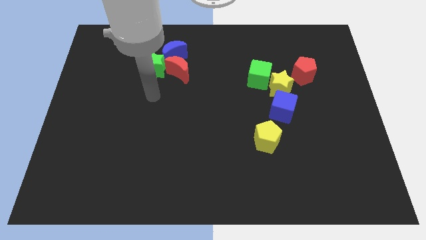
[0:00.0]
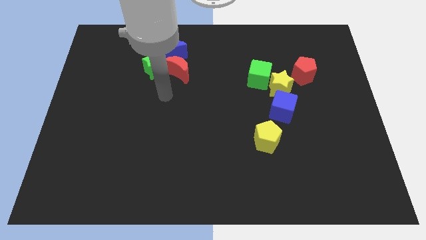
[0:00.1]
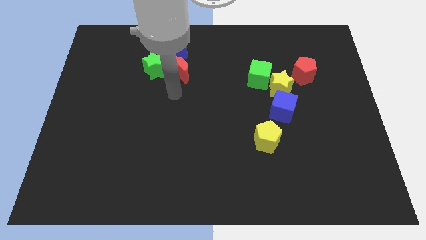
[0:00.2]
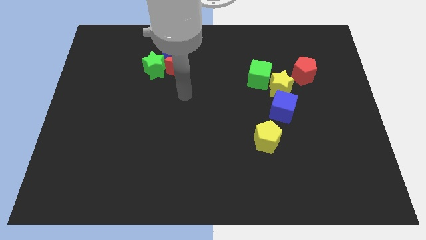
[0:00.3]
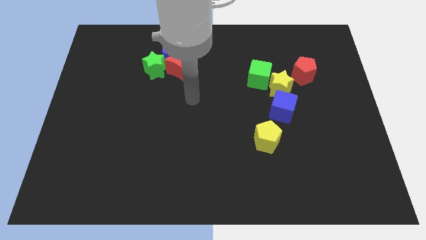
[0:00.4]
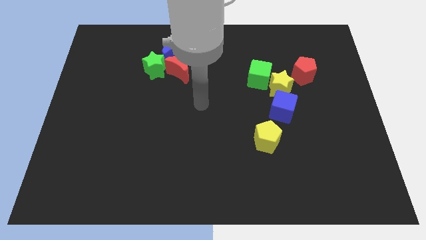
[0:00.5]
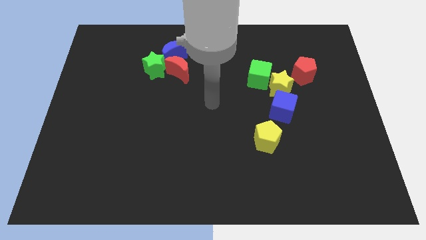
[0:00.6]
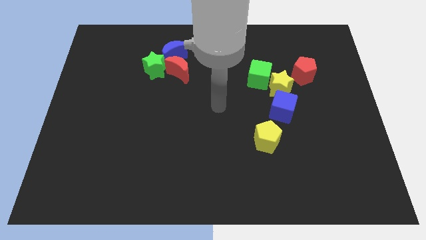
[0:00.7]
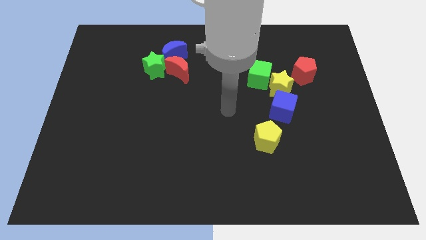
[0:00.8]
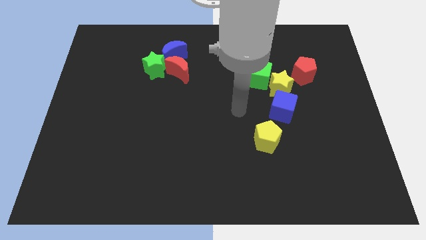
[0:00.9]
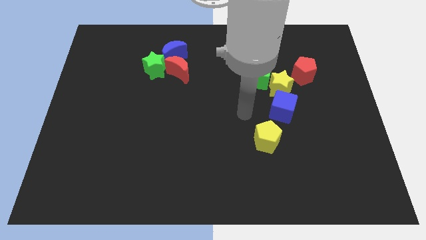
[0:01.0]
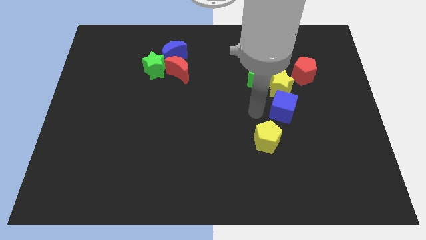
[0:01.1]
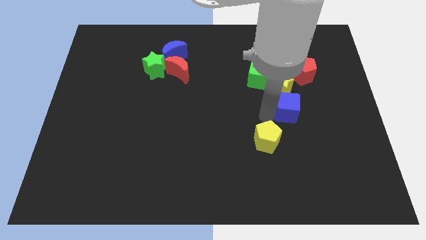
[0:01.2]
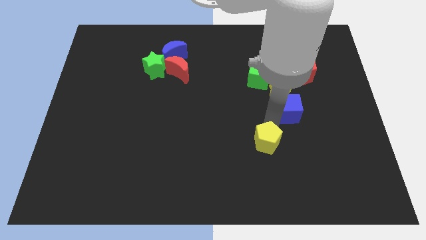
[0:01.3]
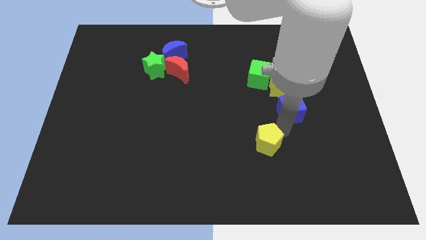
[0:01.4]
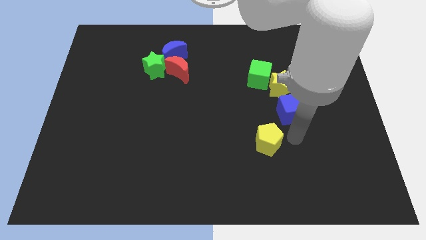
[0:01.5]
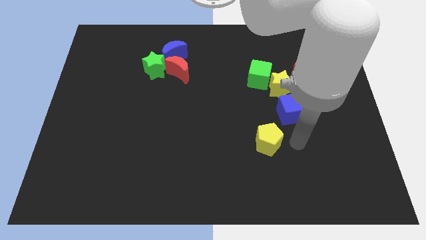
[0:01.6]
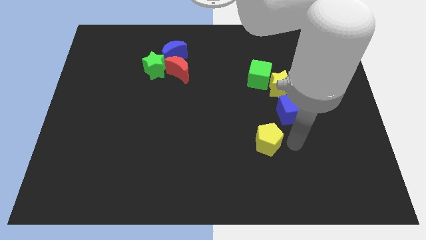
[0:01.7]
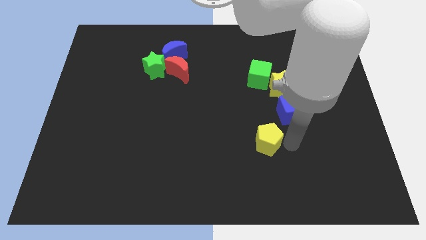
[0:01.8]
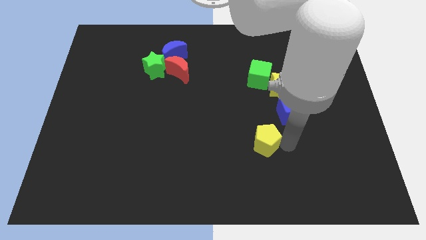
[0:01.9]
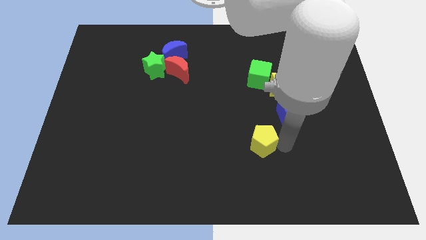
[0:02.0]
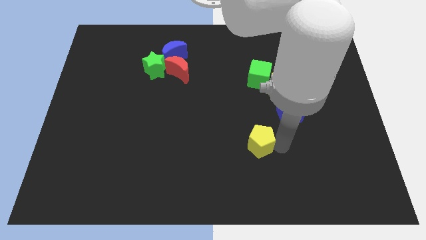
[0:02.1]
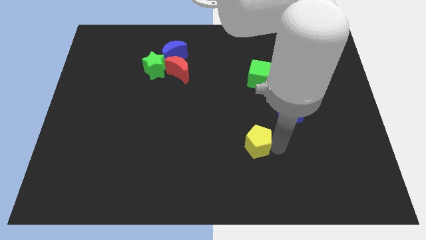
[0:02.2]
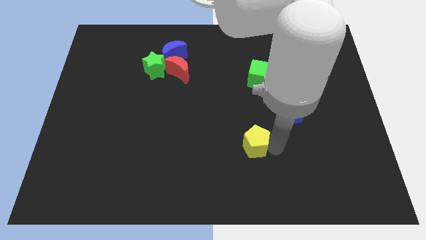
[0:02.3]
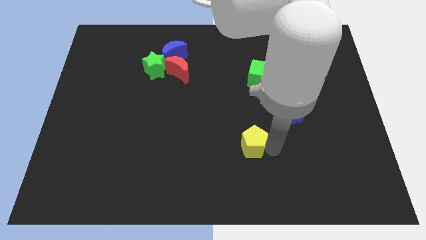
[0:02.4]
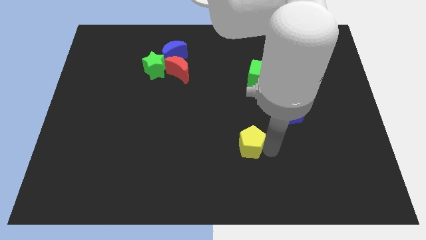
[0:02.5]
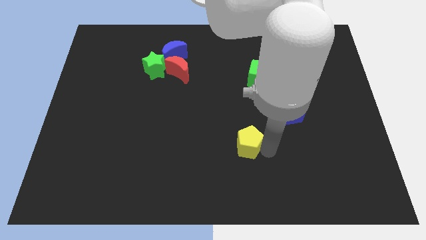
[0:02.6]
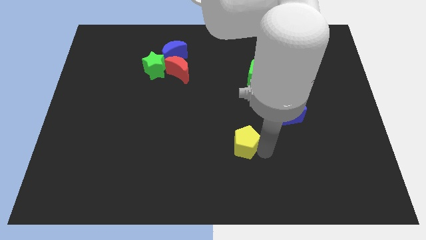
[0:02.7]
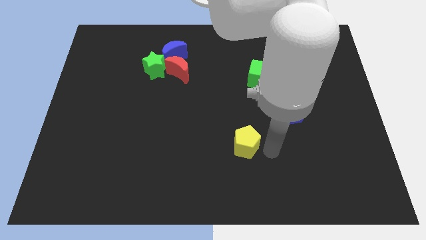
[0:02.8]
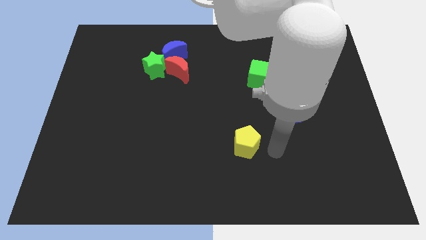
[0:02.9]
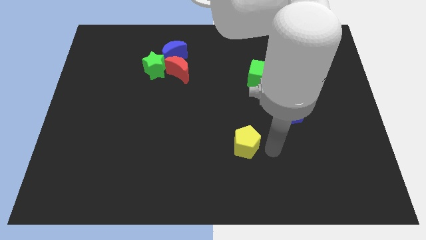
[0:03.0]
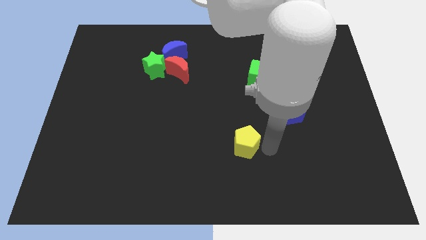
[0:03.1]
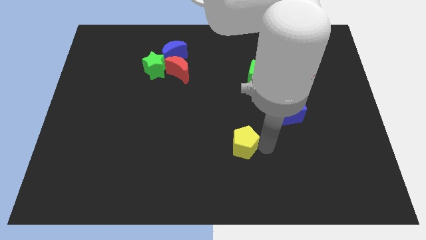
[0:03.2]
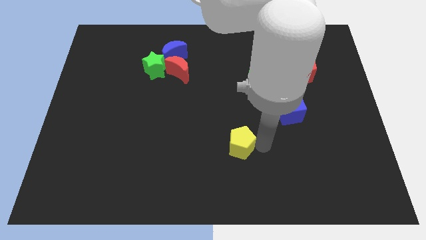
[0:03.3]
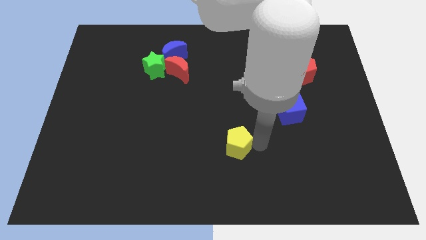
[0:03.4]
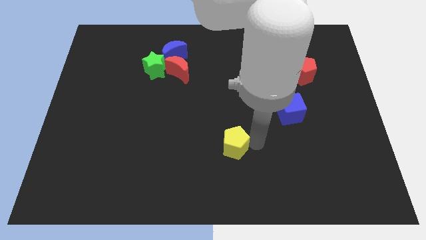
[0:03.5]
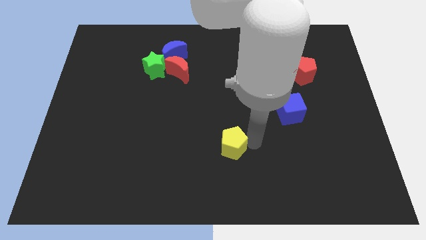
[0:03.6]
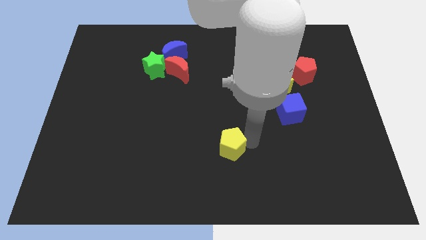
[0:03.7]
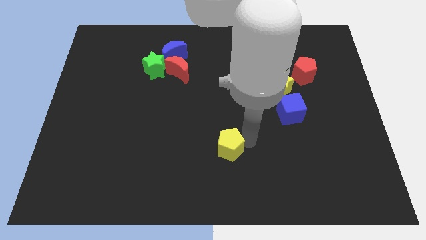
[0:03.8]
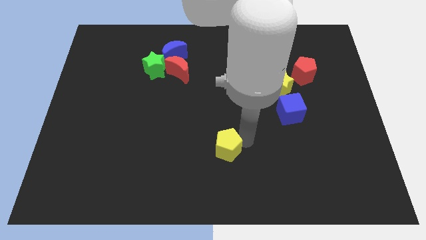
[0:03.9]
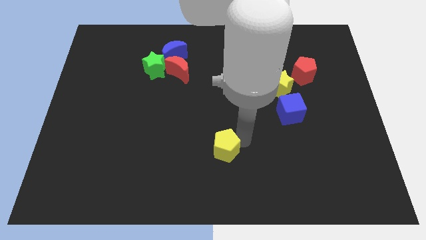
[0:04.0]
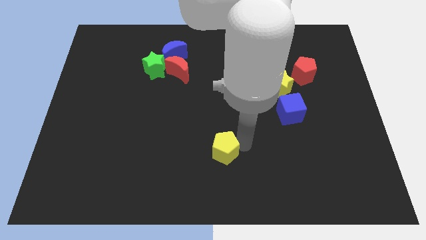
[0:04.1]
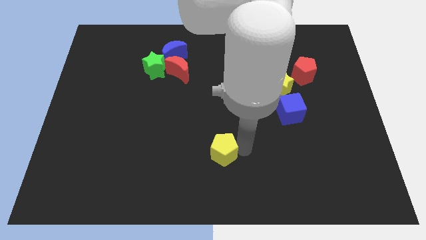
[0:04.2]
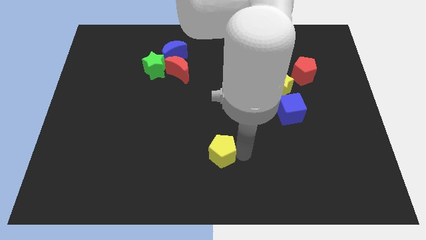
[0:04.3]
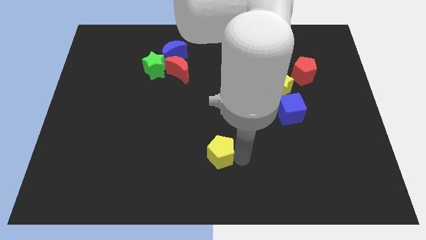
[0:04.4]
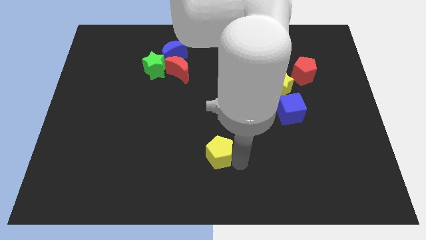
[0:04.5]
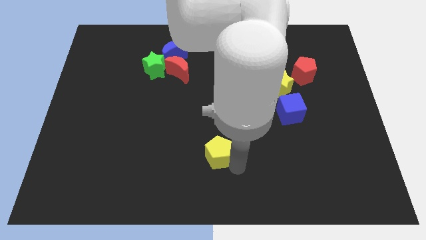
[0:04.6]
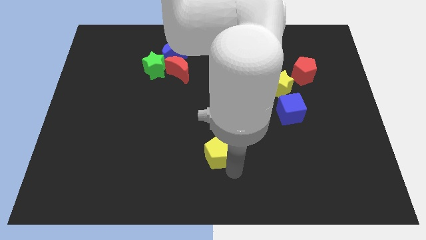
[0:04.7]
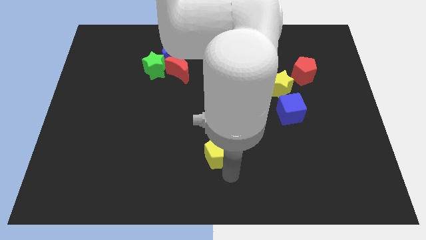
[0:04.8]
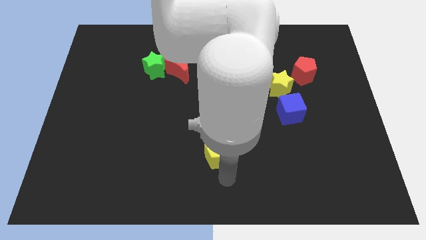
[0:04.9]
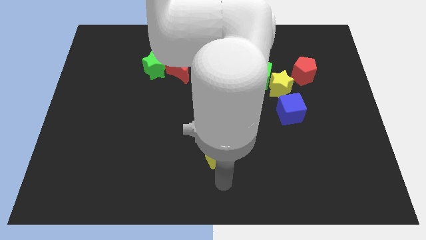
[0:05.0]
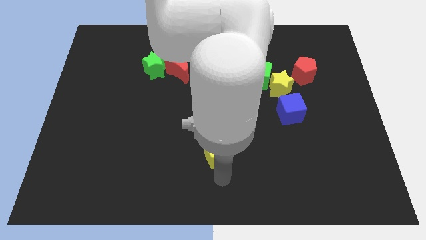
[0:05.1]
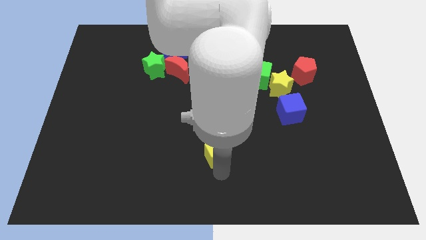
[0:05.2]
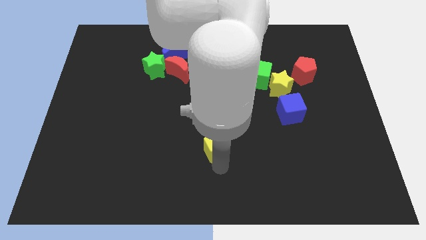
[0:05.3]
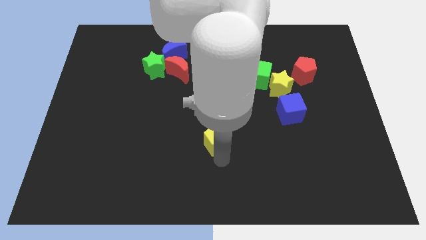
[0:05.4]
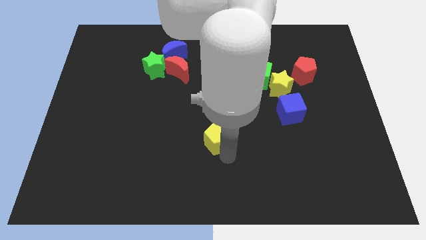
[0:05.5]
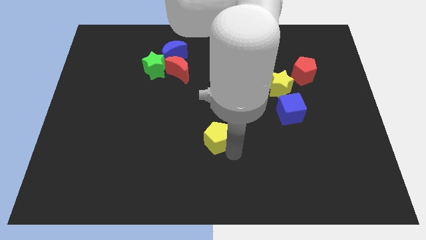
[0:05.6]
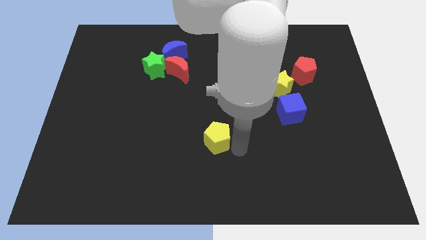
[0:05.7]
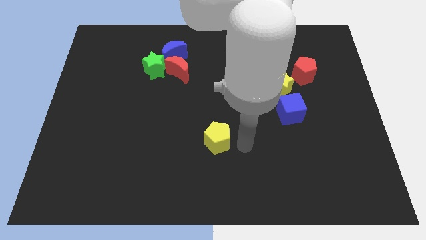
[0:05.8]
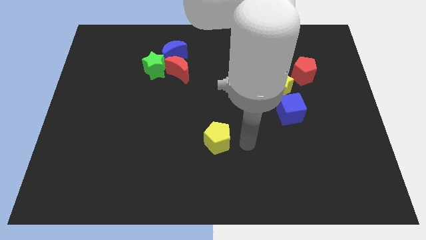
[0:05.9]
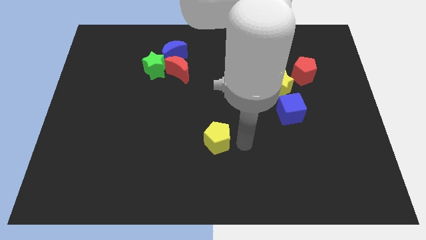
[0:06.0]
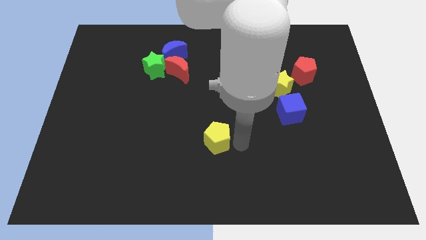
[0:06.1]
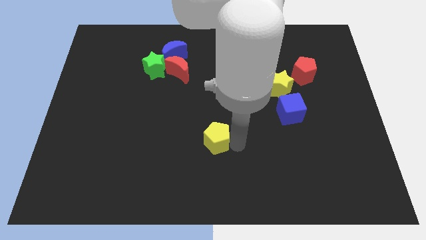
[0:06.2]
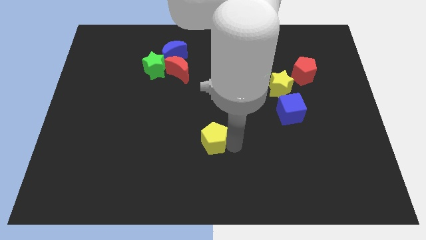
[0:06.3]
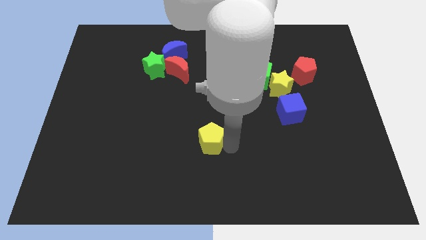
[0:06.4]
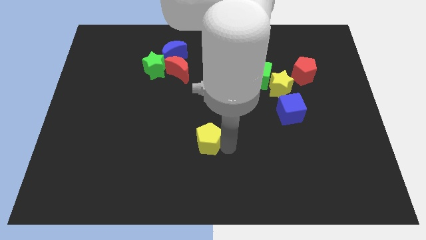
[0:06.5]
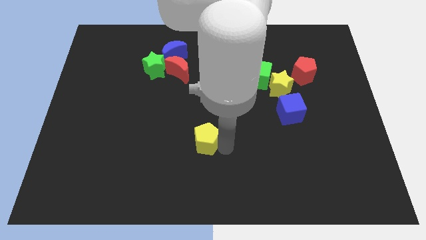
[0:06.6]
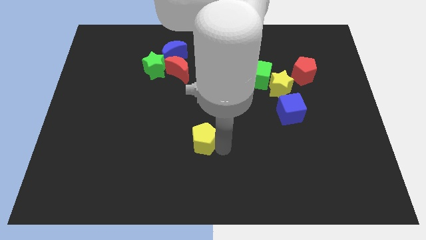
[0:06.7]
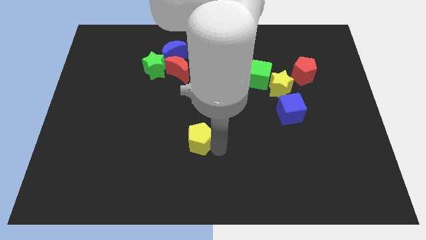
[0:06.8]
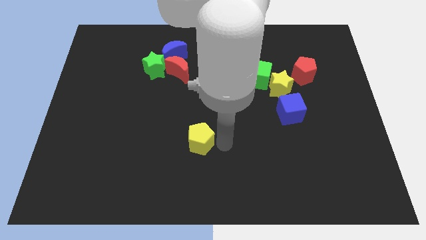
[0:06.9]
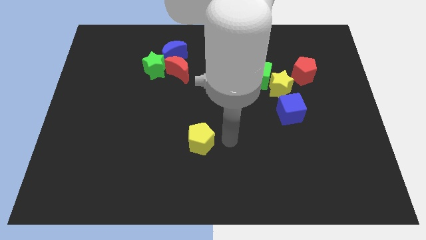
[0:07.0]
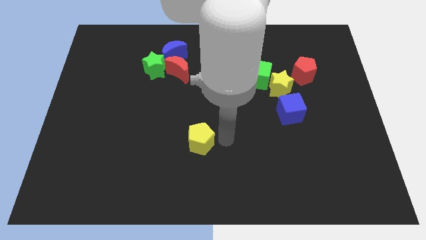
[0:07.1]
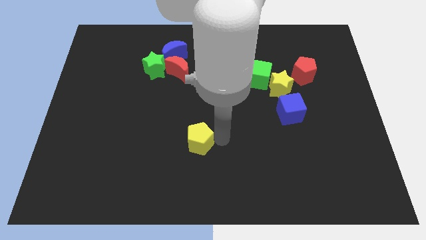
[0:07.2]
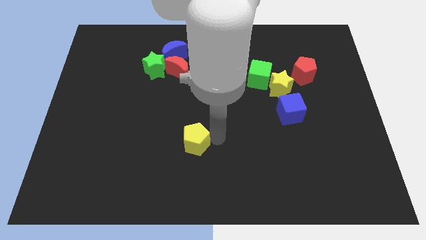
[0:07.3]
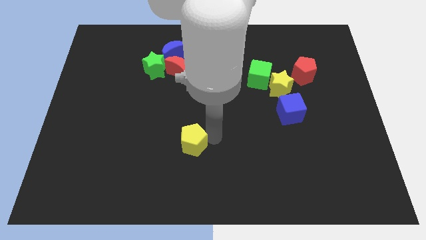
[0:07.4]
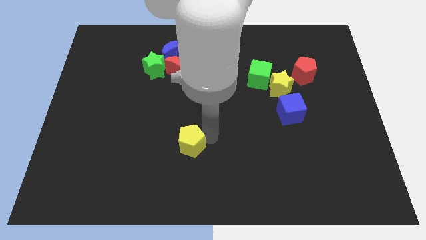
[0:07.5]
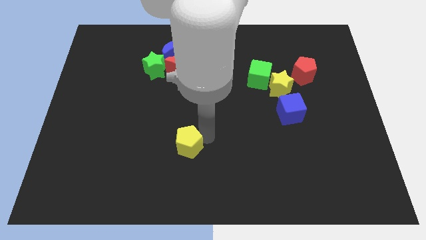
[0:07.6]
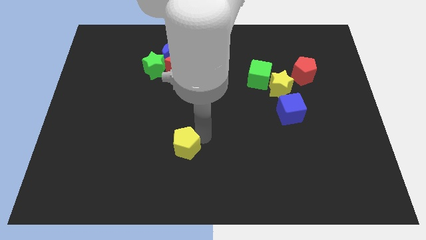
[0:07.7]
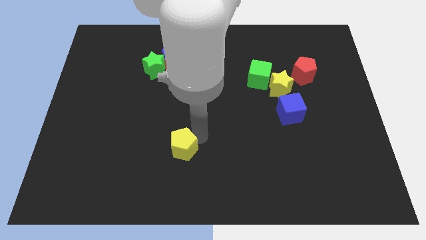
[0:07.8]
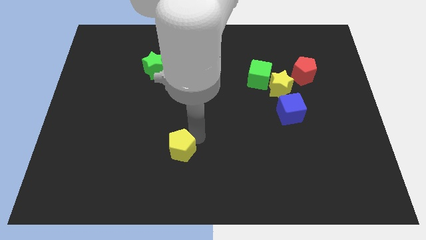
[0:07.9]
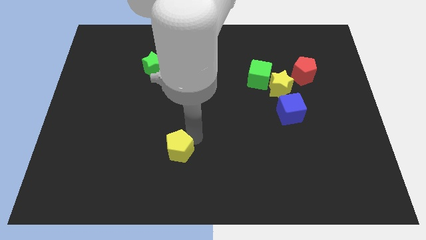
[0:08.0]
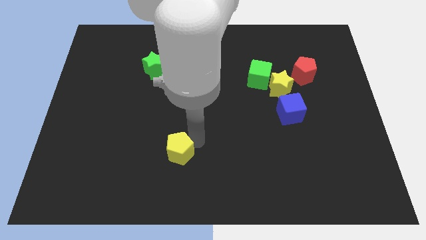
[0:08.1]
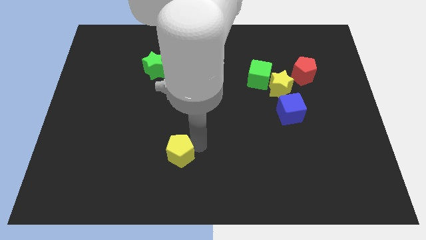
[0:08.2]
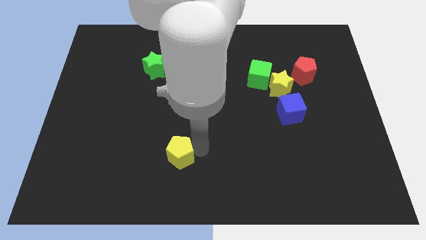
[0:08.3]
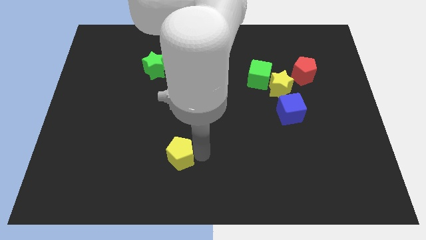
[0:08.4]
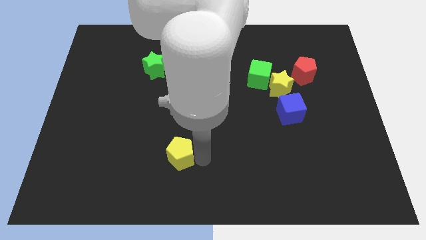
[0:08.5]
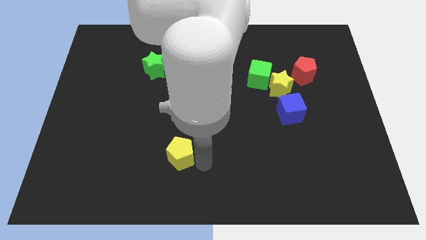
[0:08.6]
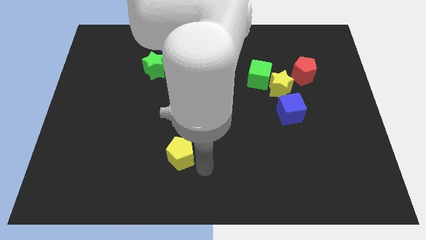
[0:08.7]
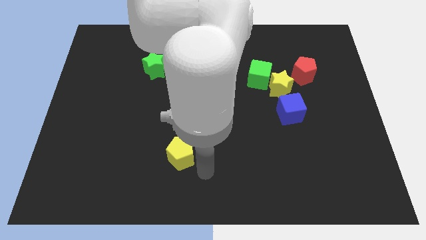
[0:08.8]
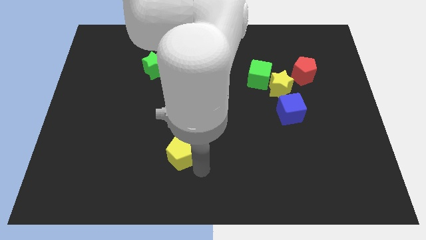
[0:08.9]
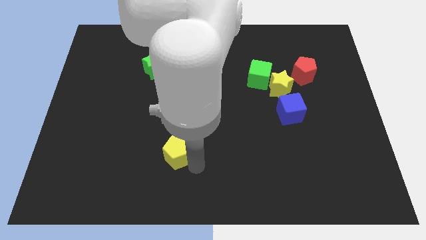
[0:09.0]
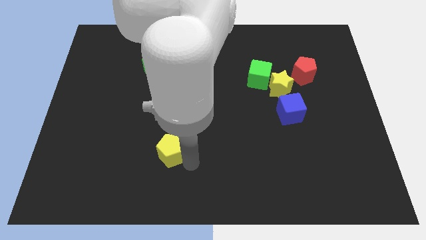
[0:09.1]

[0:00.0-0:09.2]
push the yellow pentagon left
